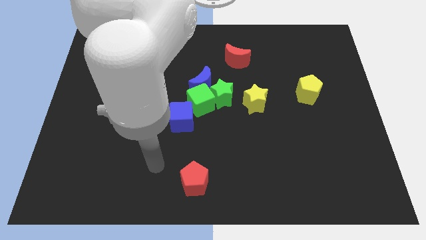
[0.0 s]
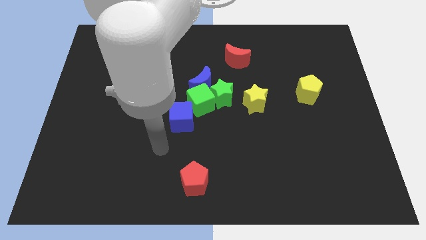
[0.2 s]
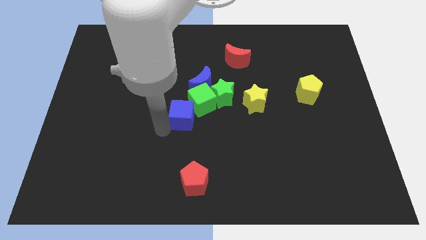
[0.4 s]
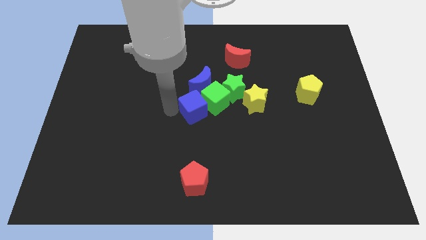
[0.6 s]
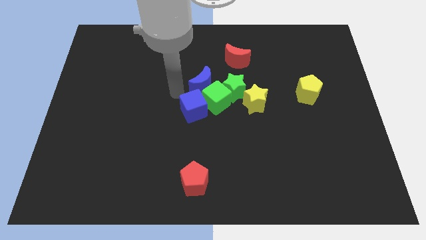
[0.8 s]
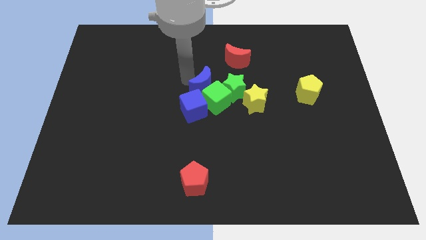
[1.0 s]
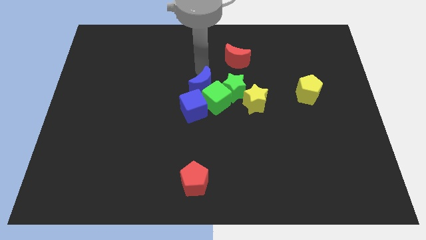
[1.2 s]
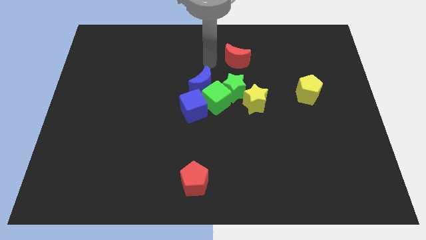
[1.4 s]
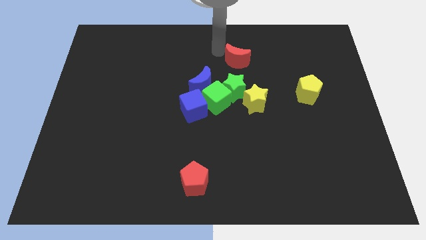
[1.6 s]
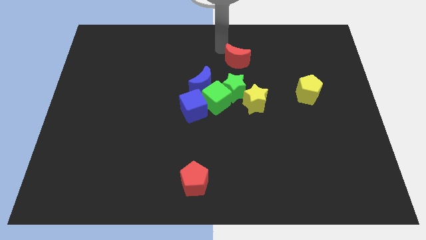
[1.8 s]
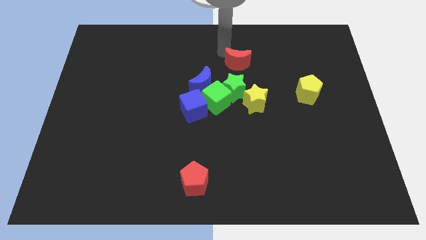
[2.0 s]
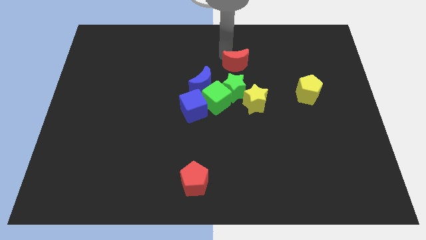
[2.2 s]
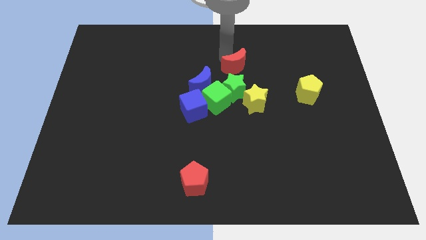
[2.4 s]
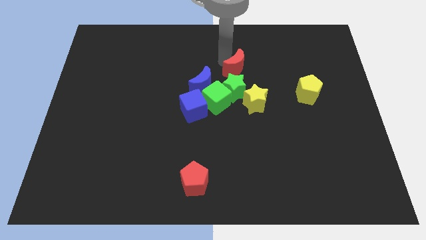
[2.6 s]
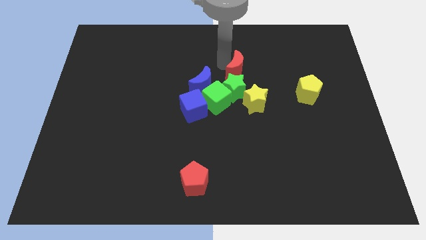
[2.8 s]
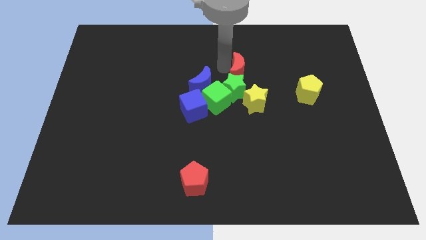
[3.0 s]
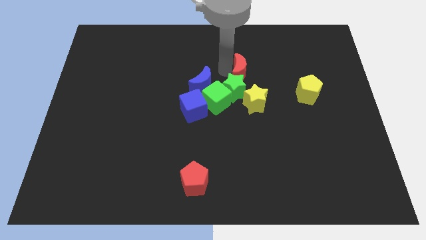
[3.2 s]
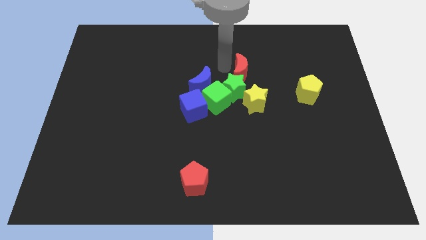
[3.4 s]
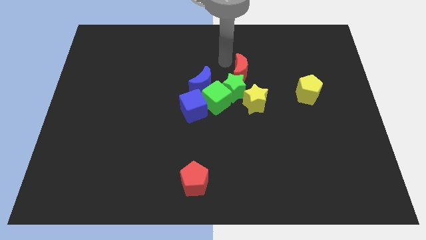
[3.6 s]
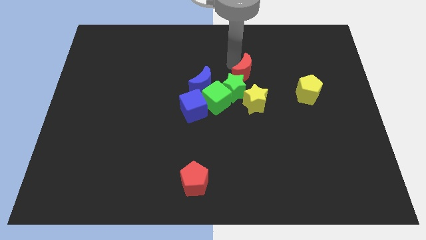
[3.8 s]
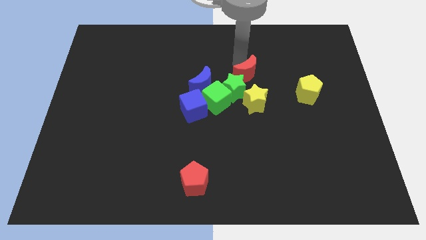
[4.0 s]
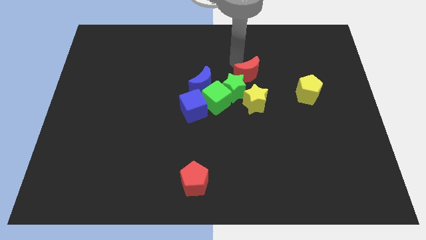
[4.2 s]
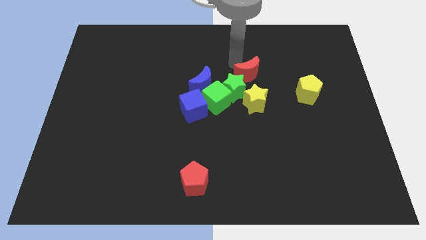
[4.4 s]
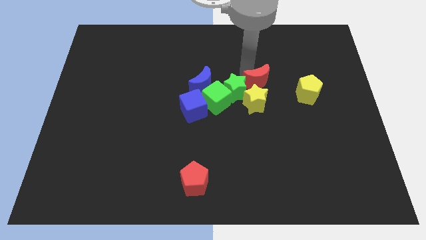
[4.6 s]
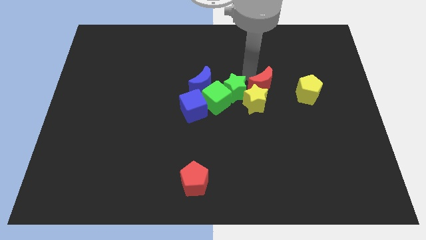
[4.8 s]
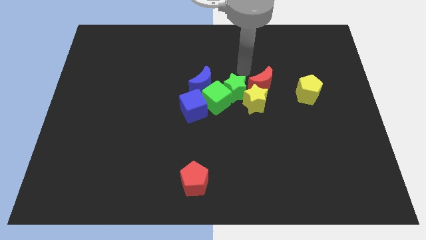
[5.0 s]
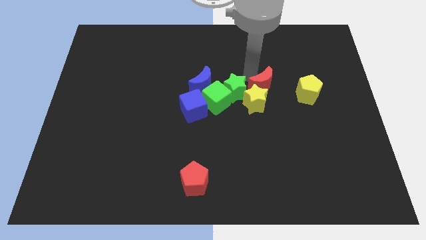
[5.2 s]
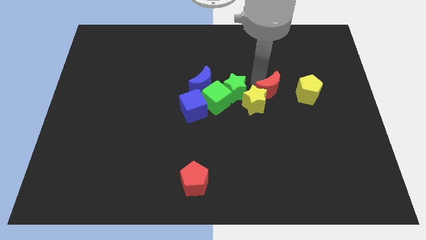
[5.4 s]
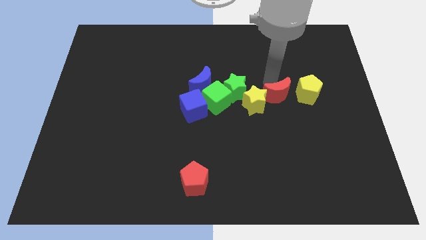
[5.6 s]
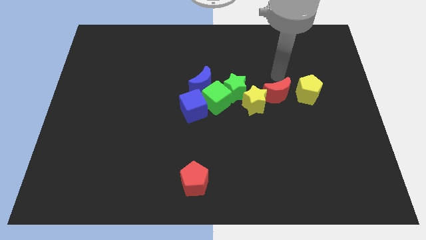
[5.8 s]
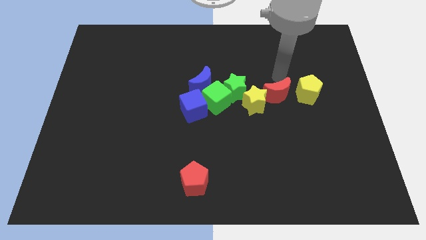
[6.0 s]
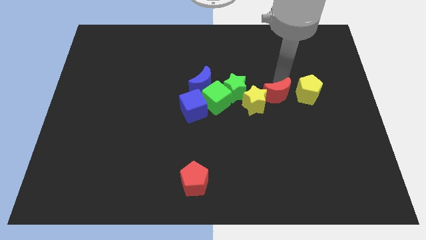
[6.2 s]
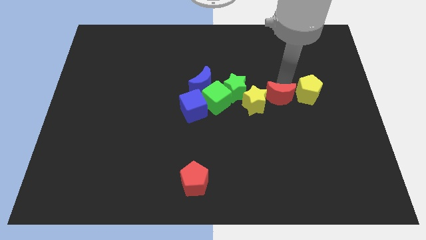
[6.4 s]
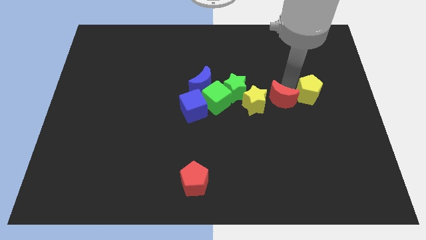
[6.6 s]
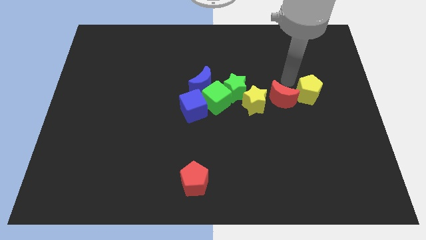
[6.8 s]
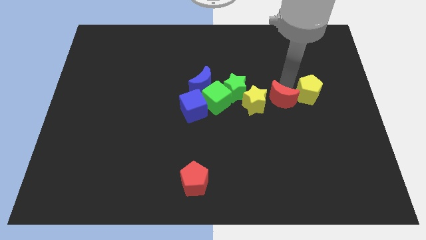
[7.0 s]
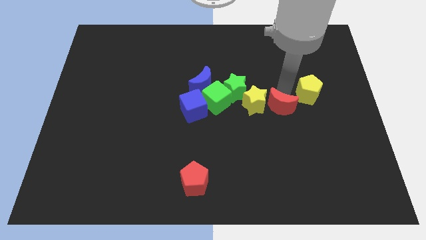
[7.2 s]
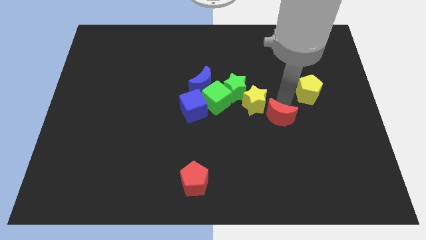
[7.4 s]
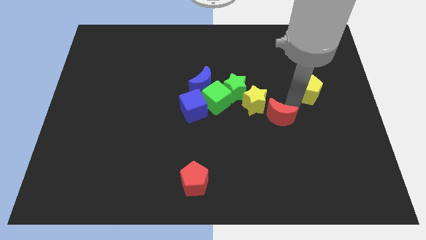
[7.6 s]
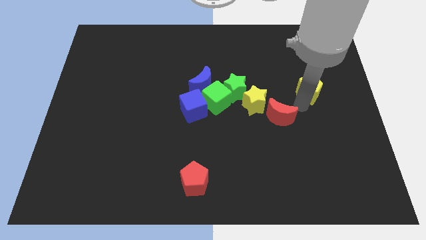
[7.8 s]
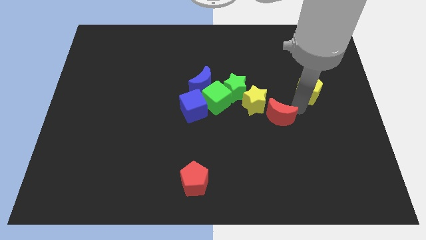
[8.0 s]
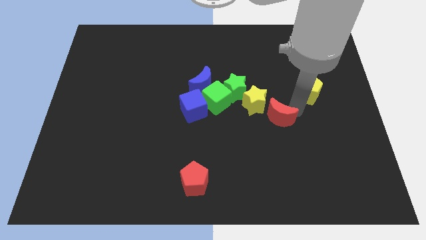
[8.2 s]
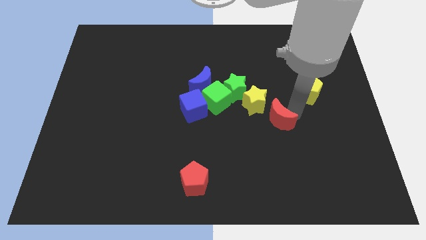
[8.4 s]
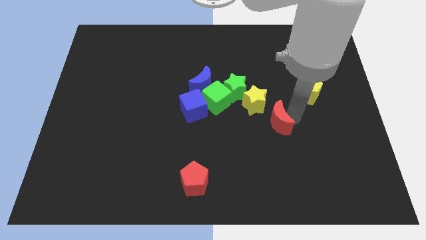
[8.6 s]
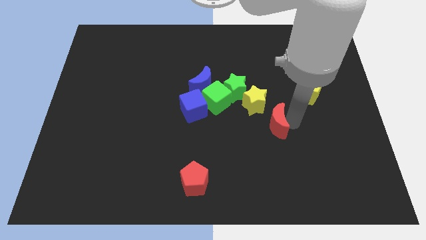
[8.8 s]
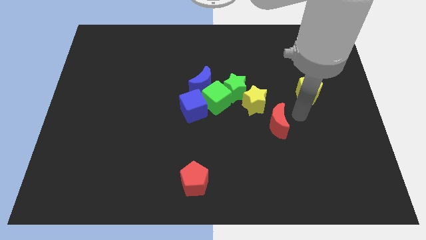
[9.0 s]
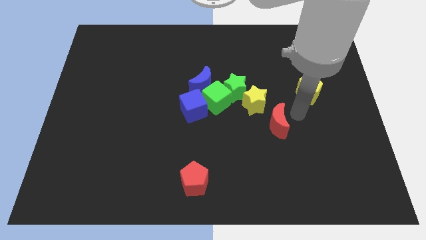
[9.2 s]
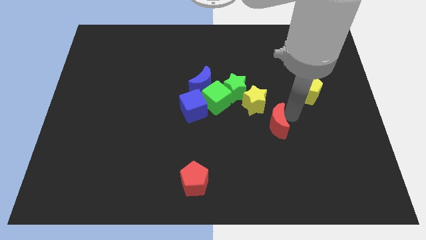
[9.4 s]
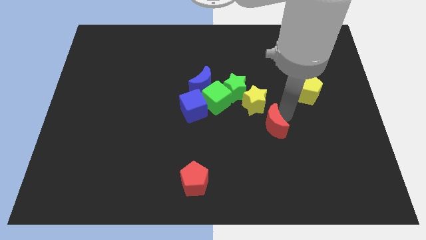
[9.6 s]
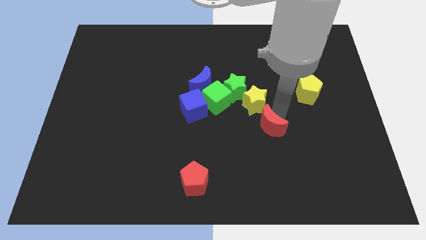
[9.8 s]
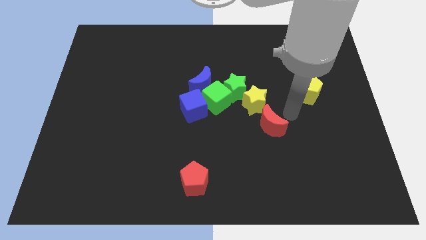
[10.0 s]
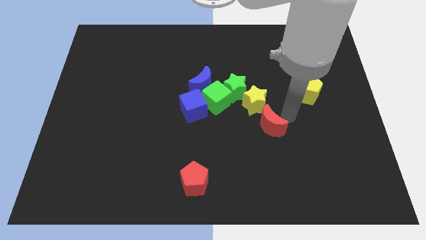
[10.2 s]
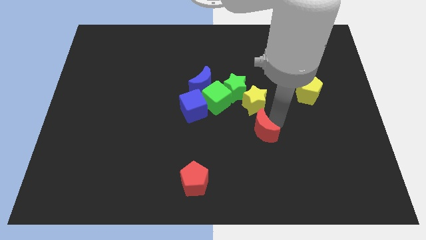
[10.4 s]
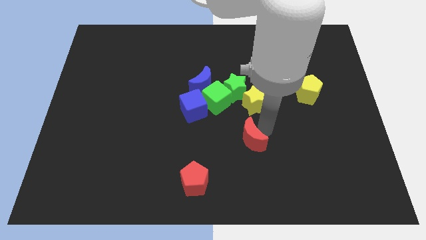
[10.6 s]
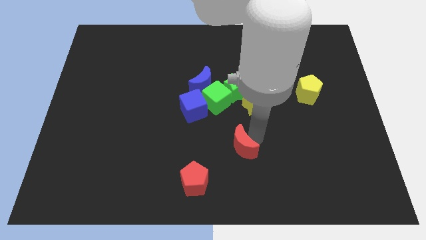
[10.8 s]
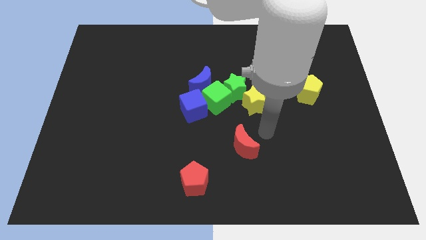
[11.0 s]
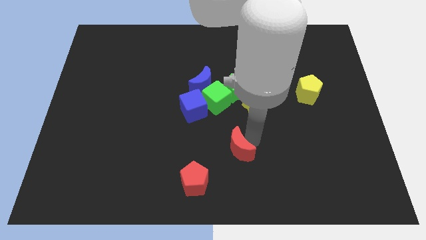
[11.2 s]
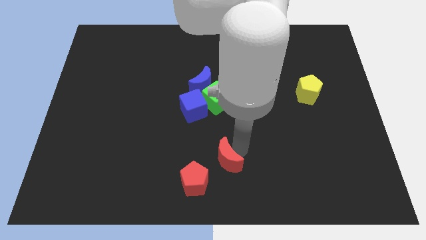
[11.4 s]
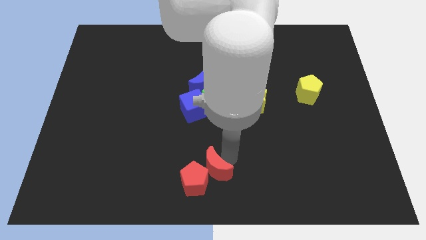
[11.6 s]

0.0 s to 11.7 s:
put the red moon next to the red pentagon

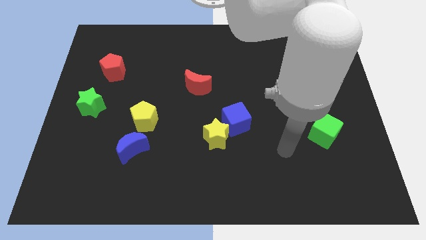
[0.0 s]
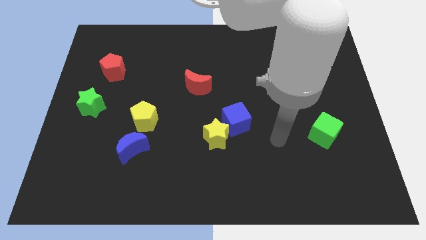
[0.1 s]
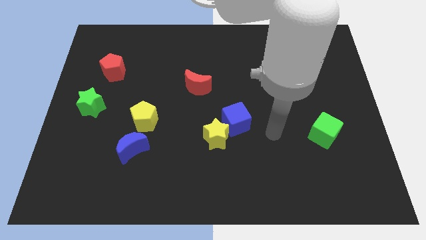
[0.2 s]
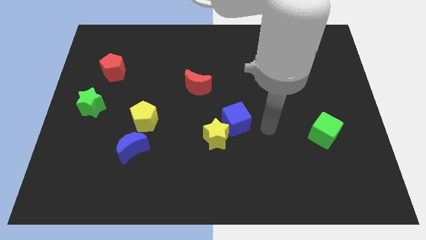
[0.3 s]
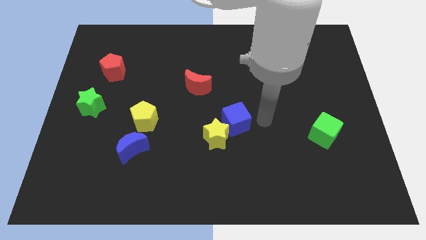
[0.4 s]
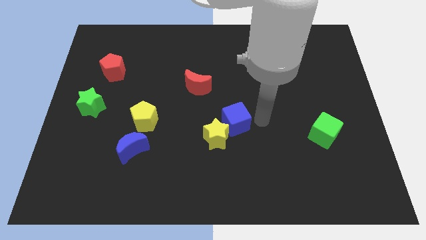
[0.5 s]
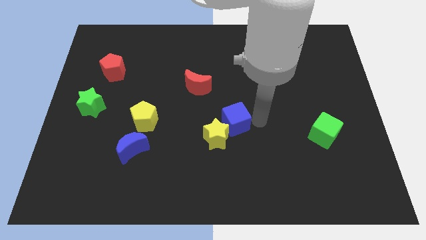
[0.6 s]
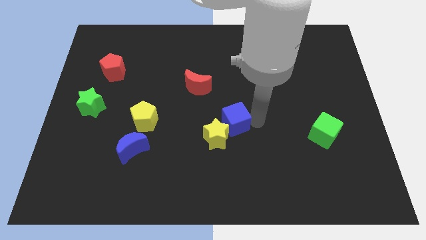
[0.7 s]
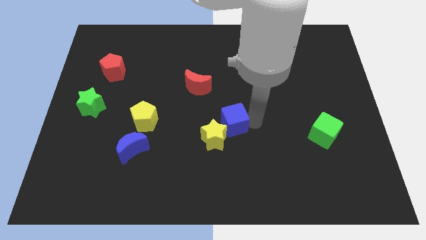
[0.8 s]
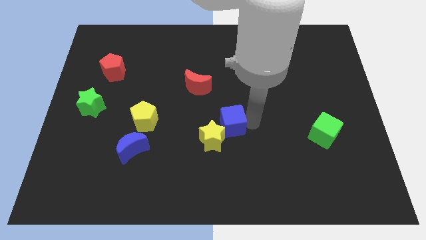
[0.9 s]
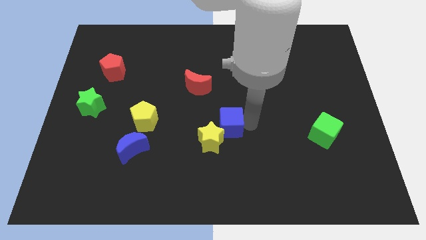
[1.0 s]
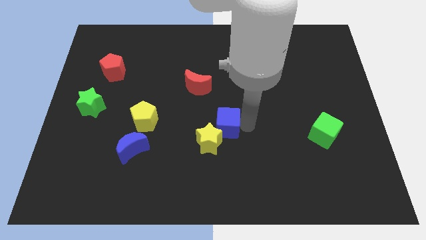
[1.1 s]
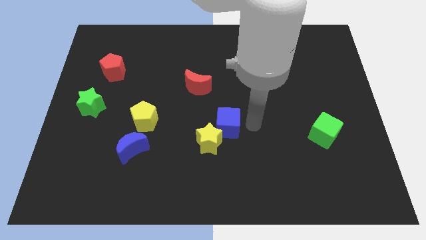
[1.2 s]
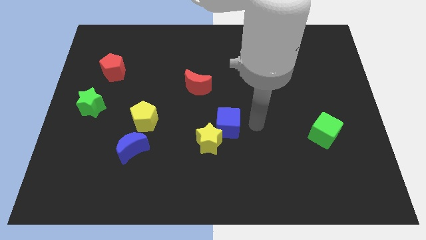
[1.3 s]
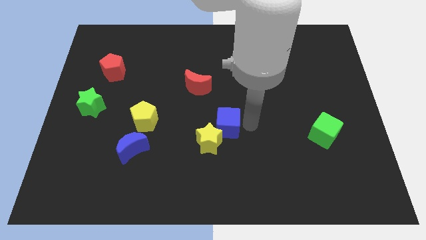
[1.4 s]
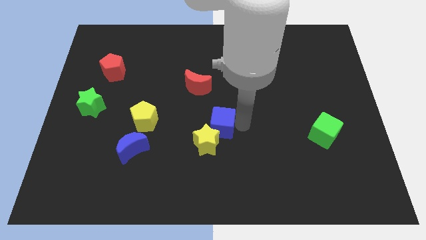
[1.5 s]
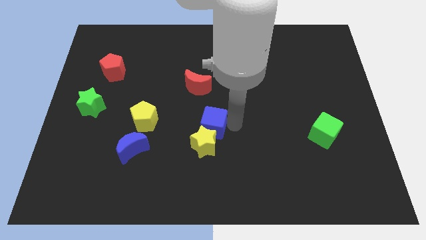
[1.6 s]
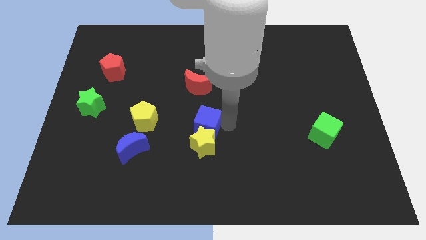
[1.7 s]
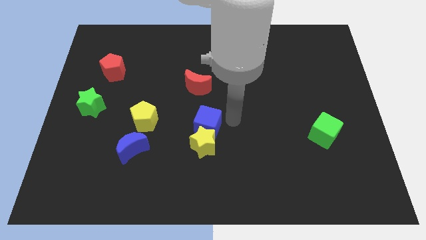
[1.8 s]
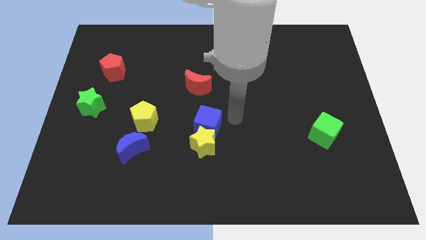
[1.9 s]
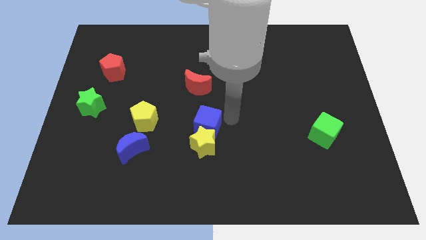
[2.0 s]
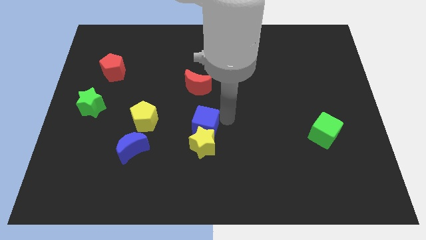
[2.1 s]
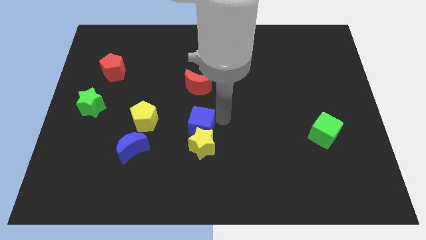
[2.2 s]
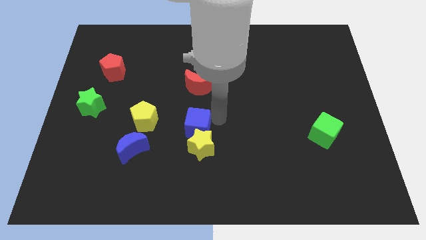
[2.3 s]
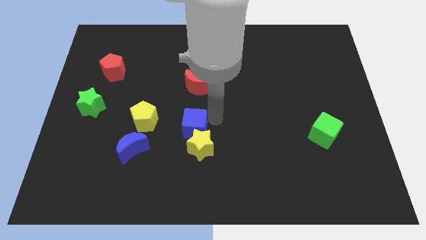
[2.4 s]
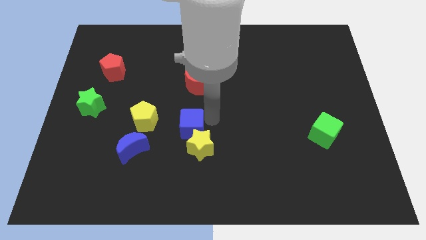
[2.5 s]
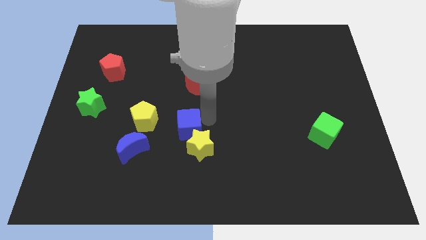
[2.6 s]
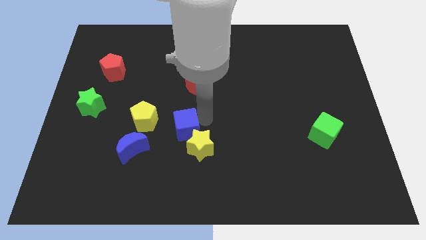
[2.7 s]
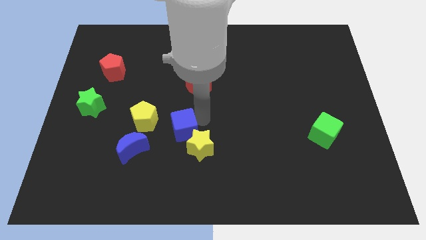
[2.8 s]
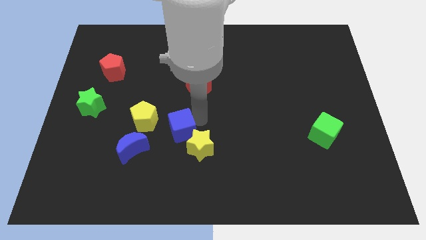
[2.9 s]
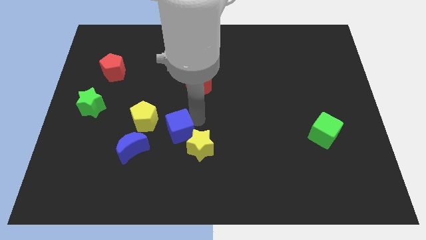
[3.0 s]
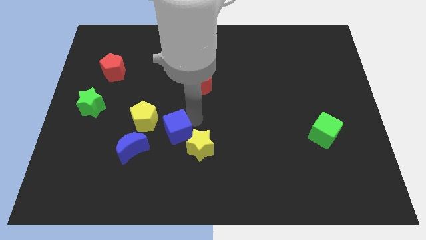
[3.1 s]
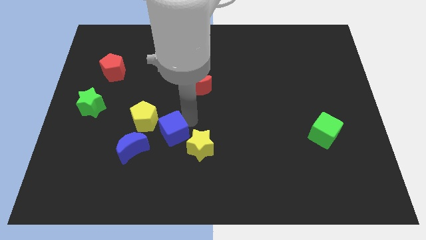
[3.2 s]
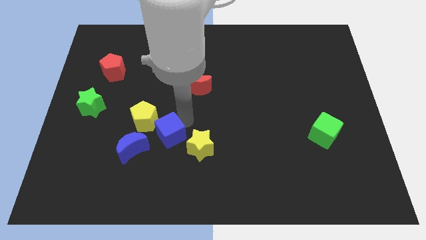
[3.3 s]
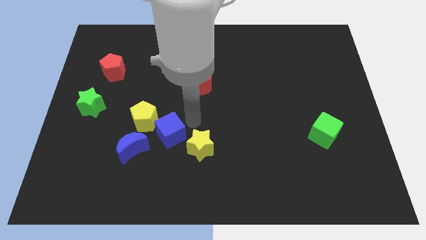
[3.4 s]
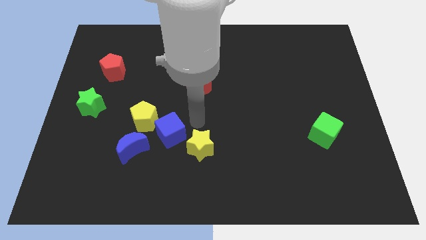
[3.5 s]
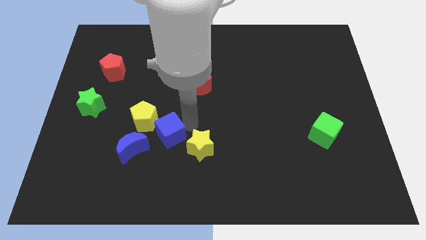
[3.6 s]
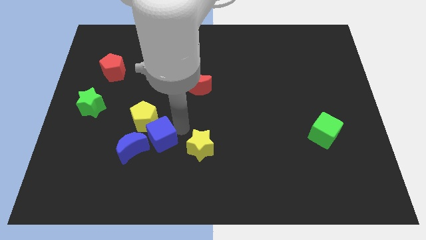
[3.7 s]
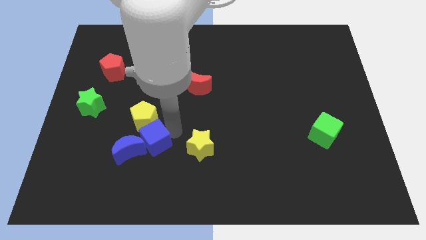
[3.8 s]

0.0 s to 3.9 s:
slide the blue cube to the blue moon
